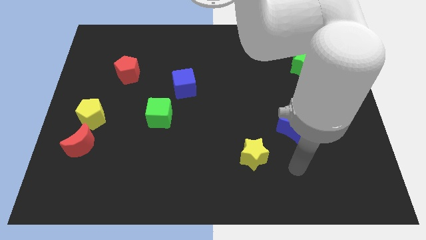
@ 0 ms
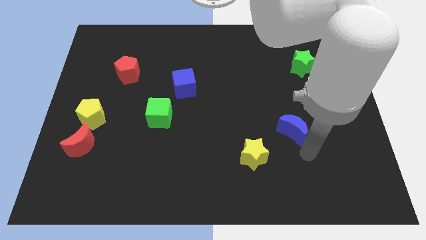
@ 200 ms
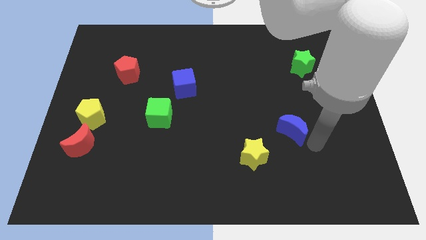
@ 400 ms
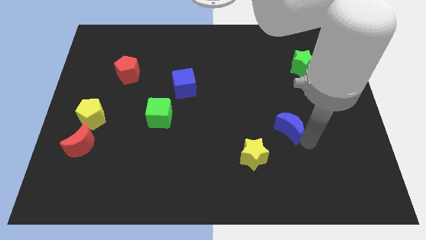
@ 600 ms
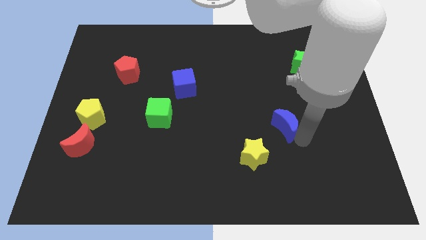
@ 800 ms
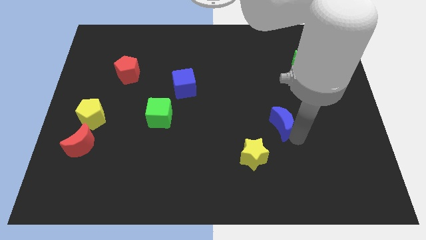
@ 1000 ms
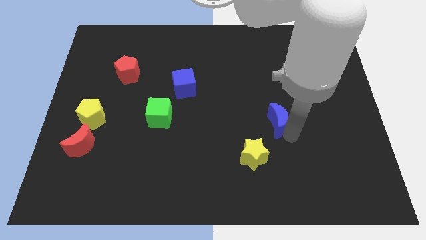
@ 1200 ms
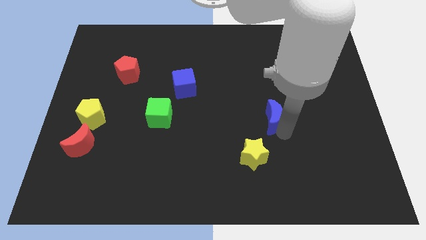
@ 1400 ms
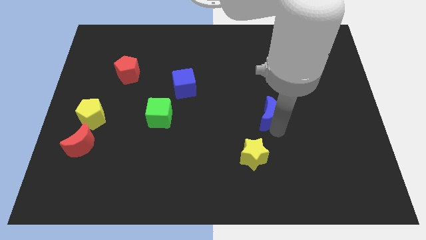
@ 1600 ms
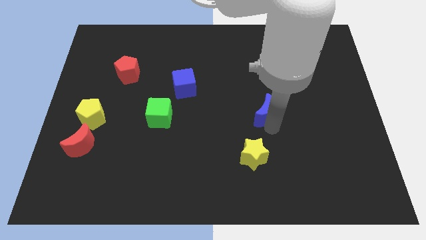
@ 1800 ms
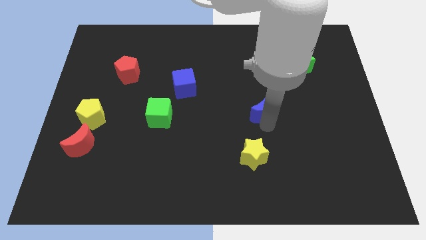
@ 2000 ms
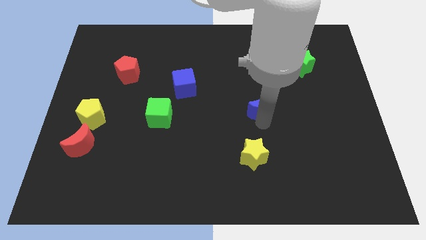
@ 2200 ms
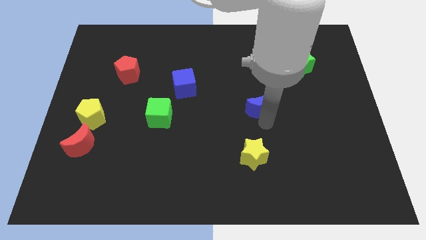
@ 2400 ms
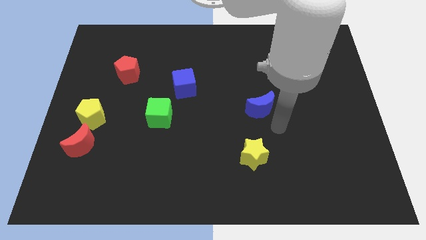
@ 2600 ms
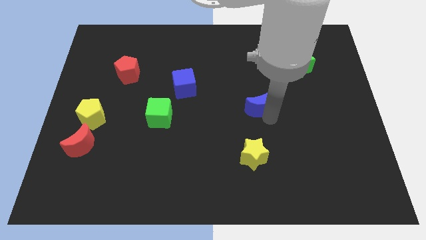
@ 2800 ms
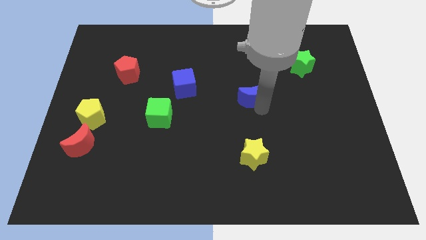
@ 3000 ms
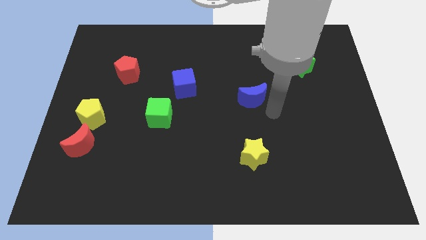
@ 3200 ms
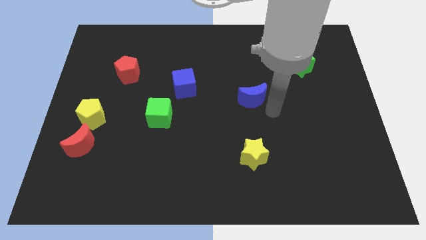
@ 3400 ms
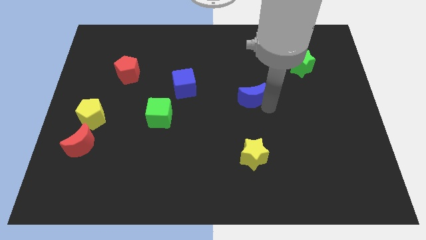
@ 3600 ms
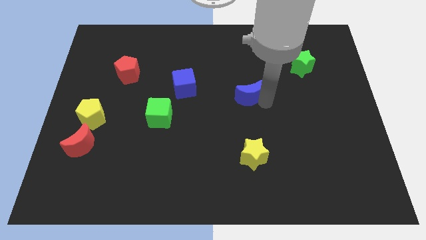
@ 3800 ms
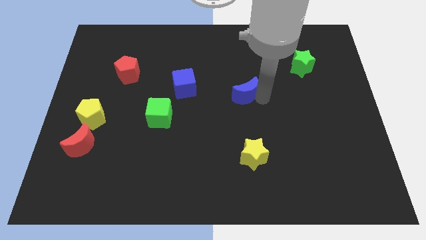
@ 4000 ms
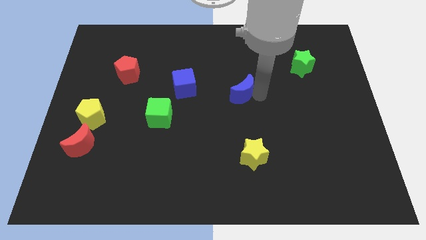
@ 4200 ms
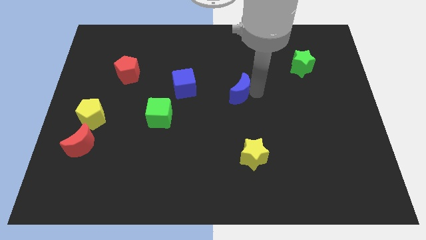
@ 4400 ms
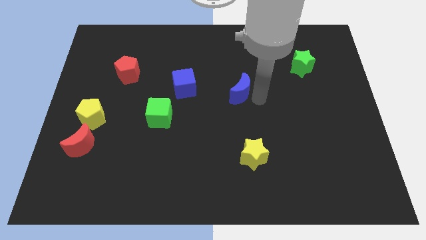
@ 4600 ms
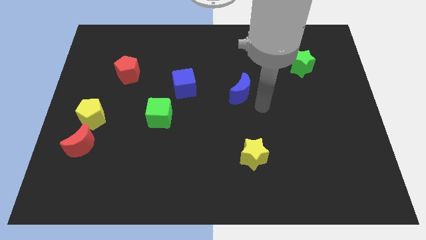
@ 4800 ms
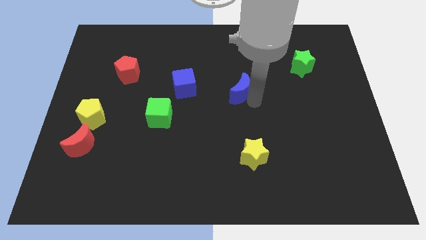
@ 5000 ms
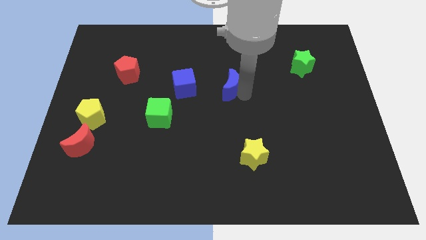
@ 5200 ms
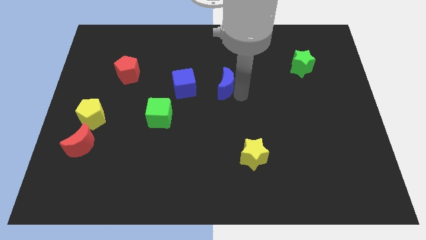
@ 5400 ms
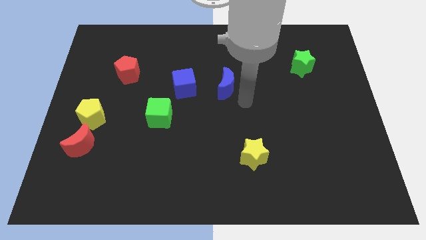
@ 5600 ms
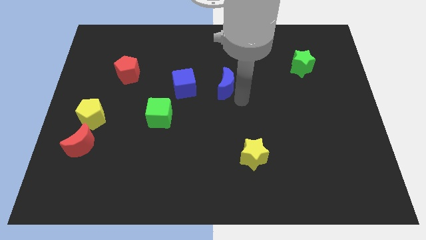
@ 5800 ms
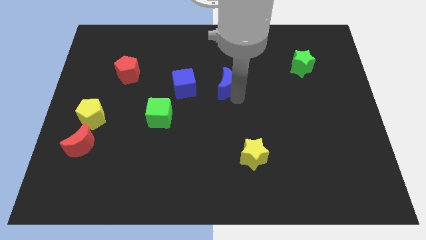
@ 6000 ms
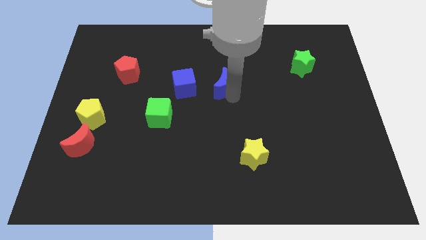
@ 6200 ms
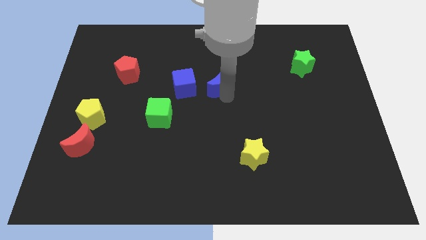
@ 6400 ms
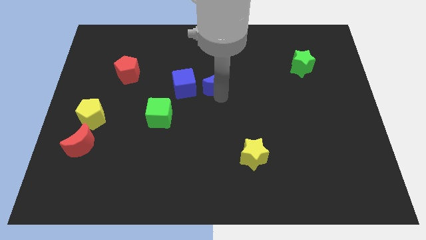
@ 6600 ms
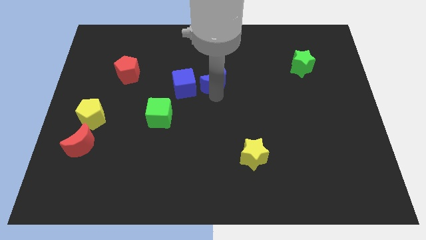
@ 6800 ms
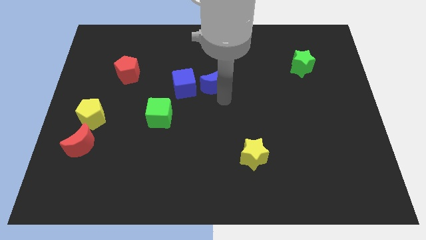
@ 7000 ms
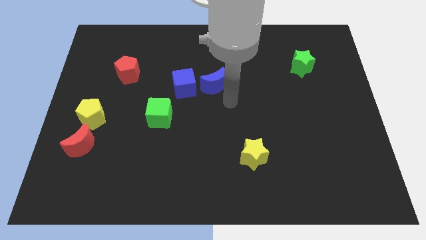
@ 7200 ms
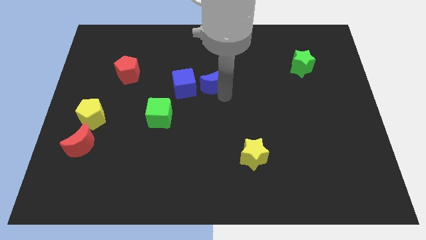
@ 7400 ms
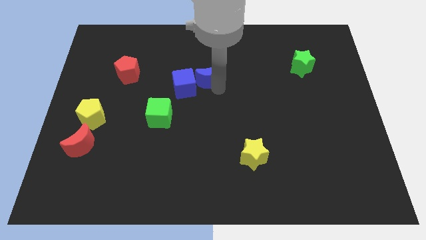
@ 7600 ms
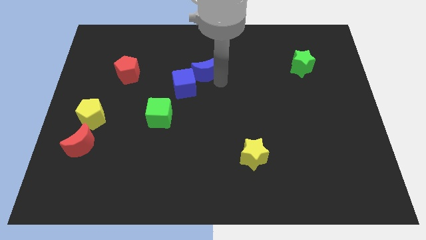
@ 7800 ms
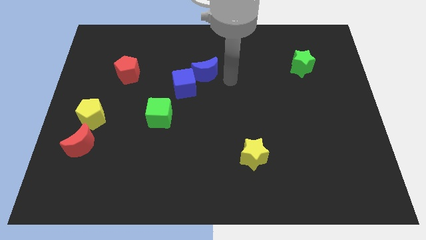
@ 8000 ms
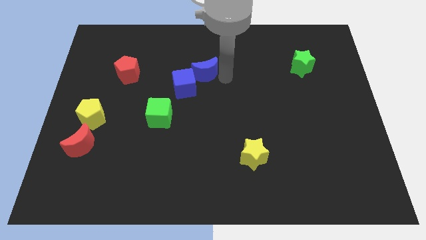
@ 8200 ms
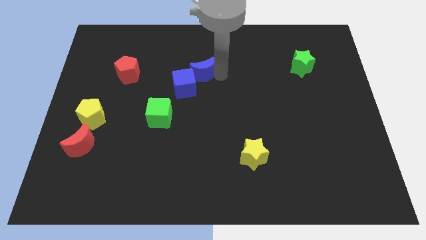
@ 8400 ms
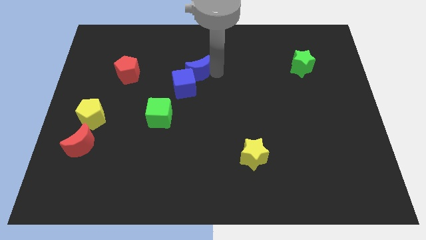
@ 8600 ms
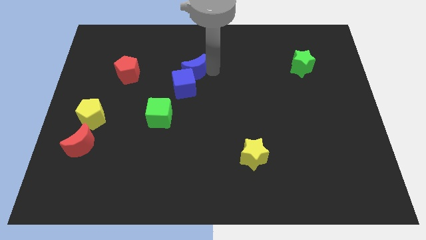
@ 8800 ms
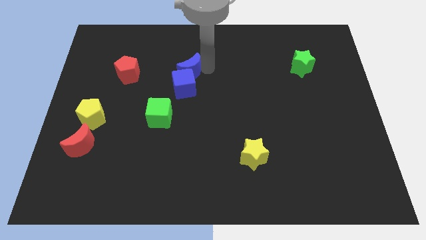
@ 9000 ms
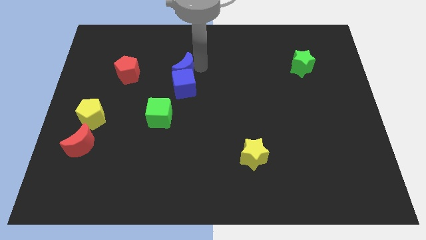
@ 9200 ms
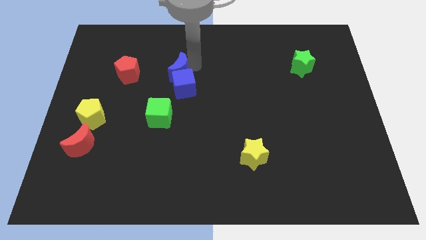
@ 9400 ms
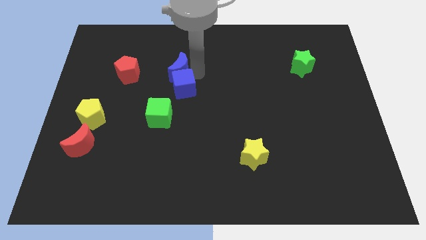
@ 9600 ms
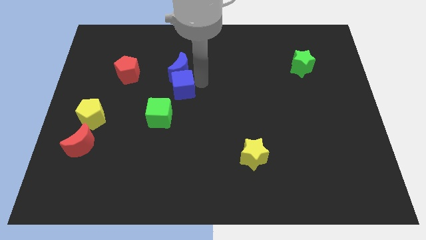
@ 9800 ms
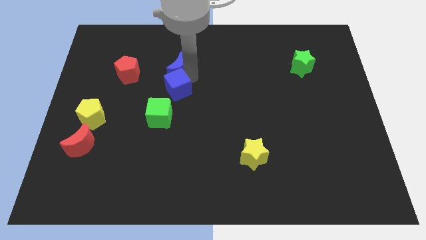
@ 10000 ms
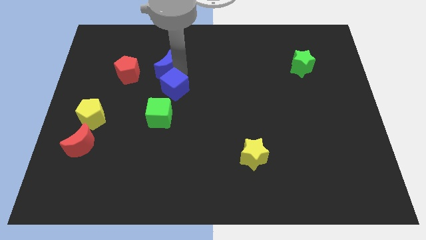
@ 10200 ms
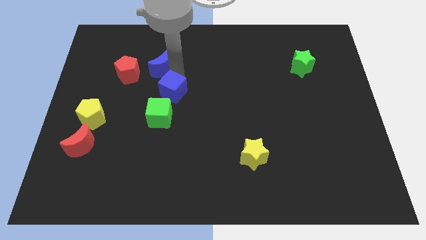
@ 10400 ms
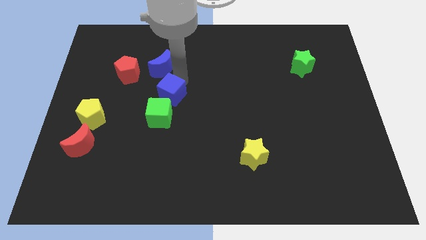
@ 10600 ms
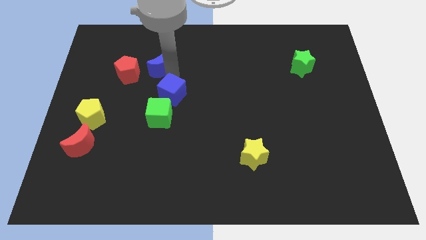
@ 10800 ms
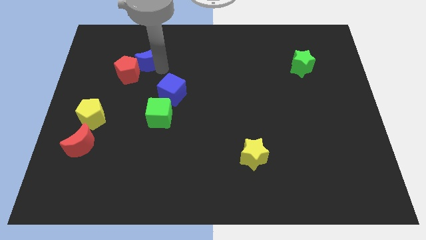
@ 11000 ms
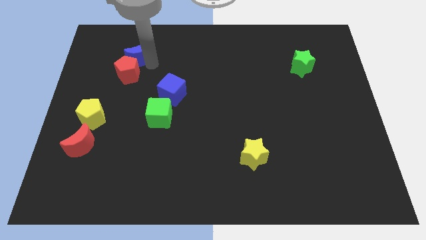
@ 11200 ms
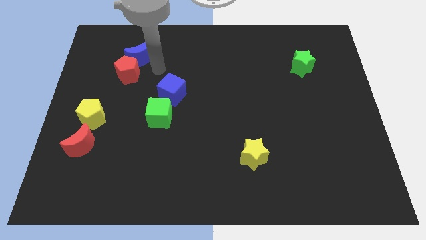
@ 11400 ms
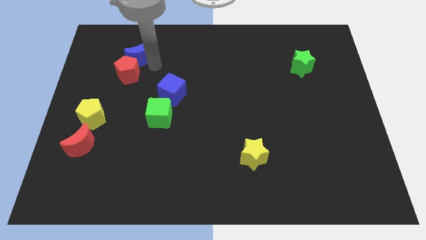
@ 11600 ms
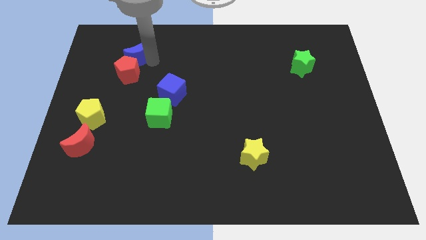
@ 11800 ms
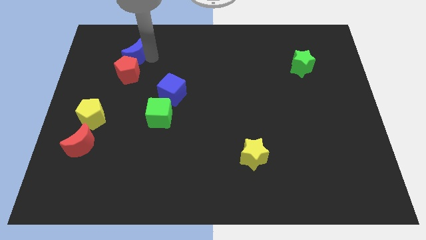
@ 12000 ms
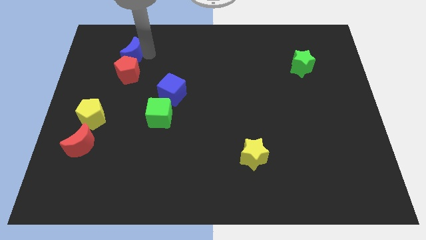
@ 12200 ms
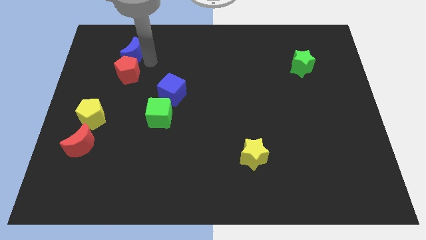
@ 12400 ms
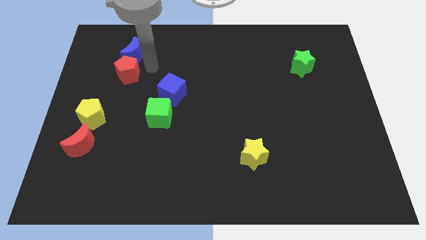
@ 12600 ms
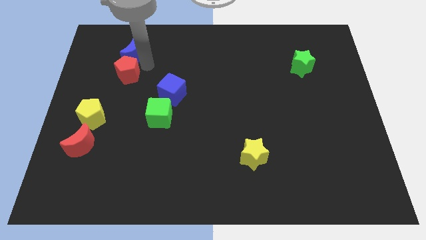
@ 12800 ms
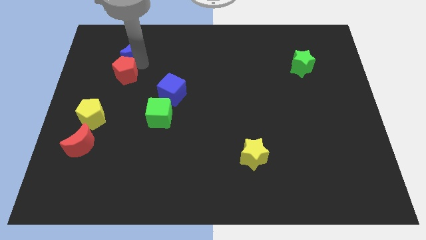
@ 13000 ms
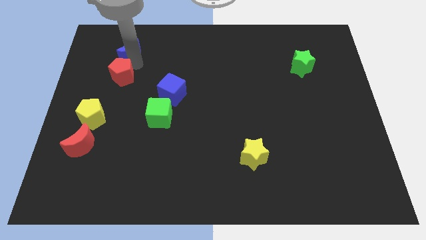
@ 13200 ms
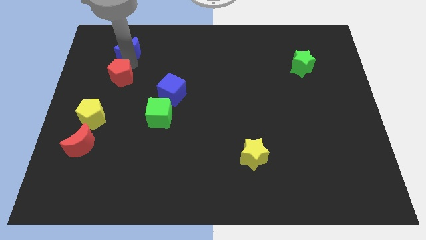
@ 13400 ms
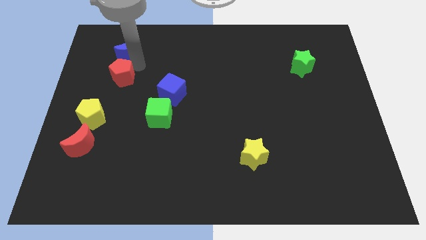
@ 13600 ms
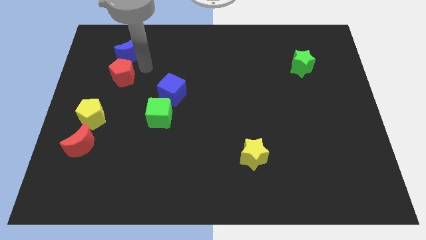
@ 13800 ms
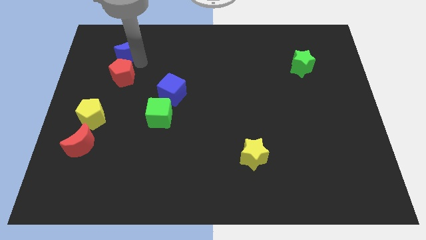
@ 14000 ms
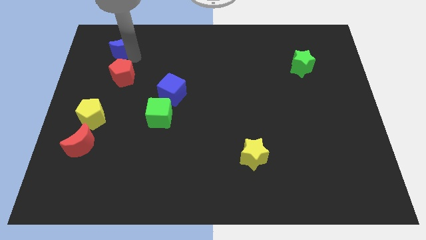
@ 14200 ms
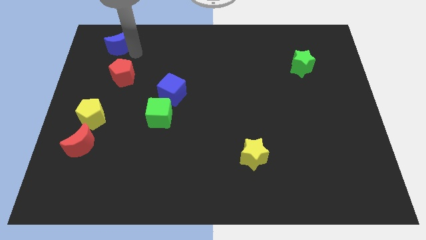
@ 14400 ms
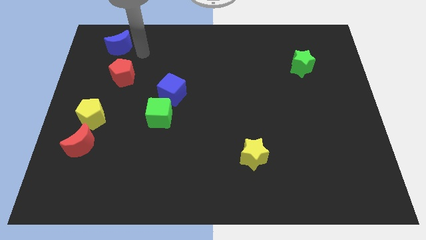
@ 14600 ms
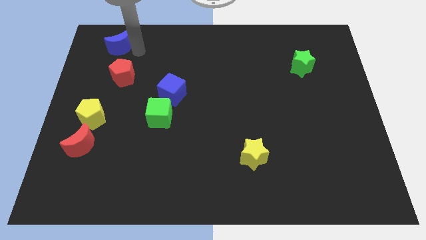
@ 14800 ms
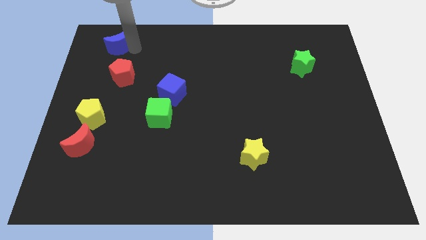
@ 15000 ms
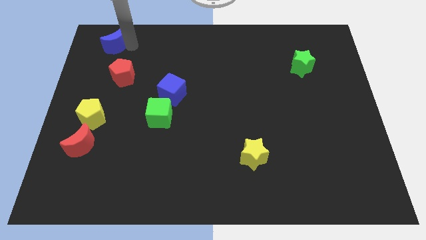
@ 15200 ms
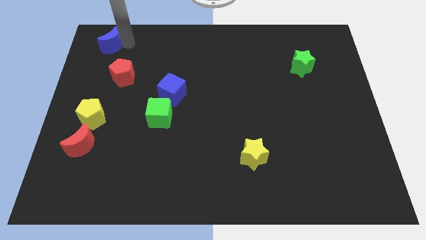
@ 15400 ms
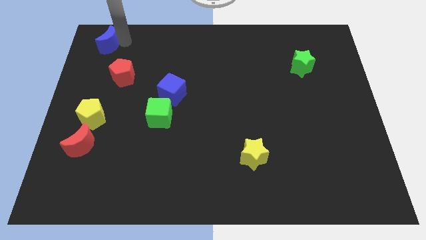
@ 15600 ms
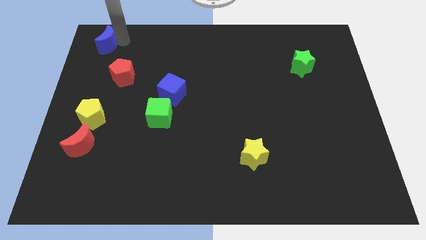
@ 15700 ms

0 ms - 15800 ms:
push the blue moon to the top left corner
